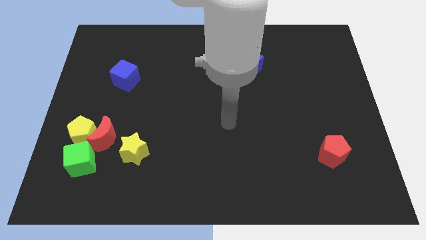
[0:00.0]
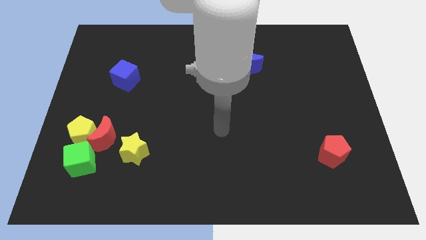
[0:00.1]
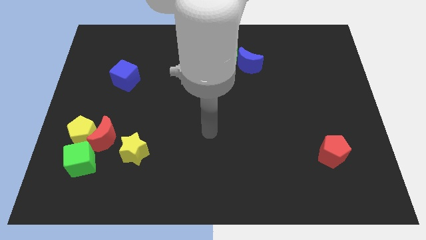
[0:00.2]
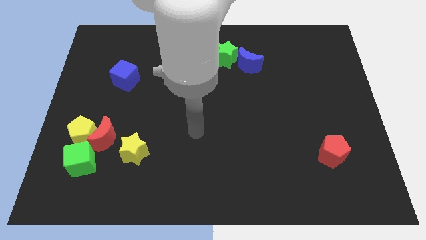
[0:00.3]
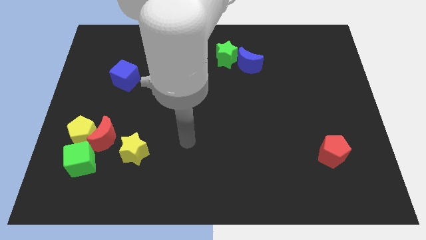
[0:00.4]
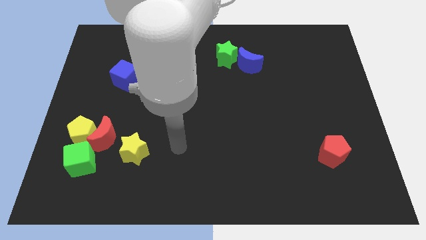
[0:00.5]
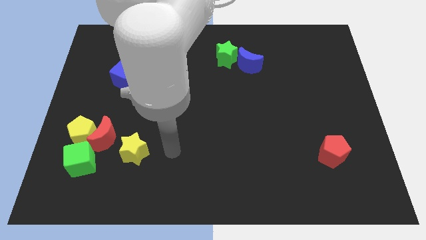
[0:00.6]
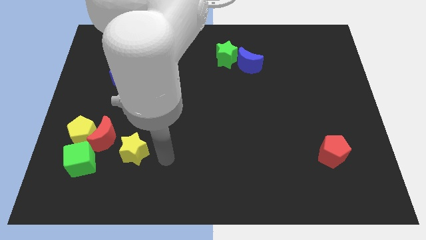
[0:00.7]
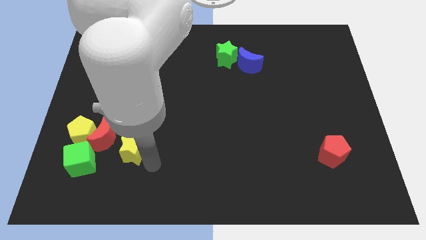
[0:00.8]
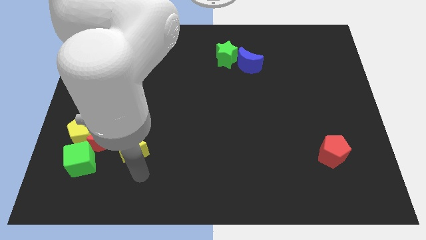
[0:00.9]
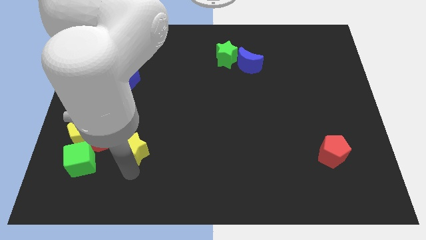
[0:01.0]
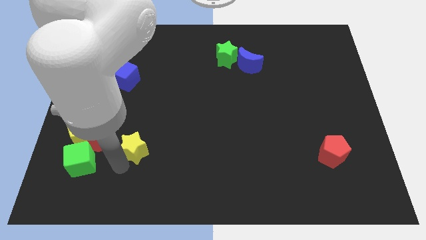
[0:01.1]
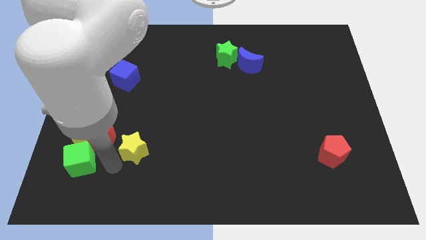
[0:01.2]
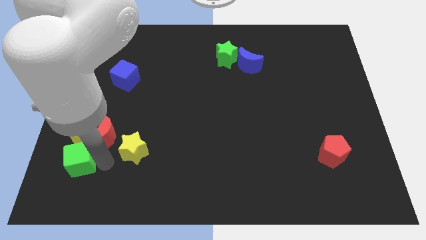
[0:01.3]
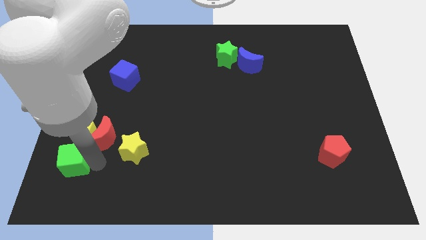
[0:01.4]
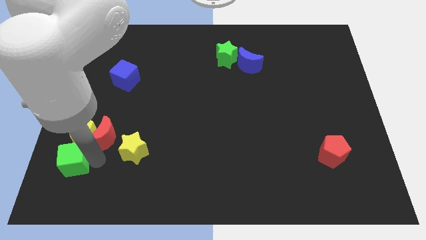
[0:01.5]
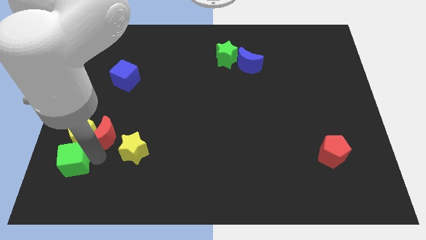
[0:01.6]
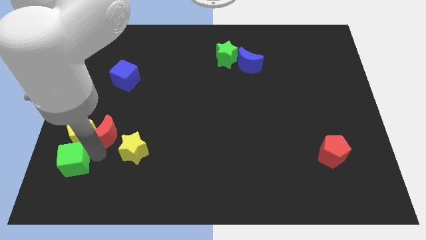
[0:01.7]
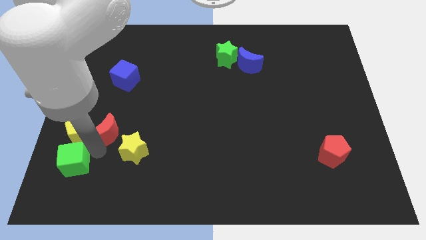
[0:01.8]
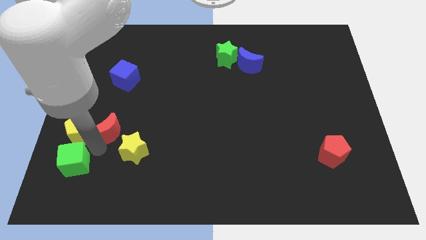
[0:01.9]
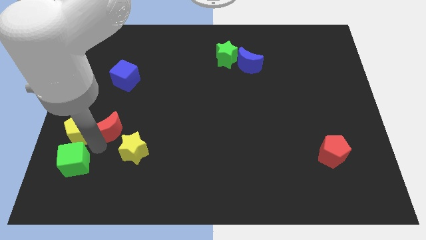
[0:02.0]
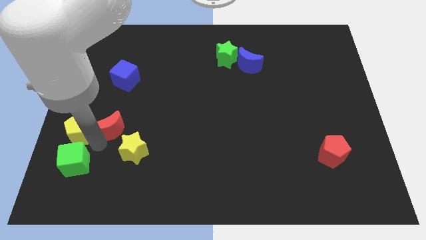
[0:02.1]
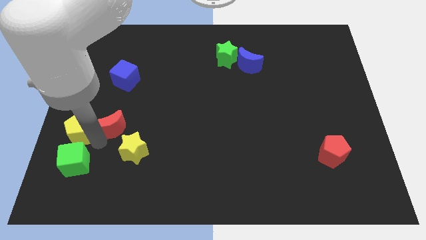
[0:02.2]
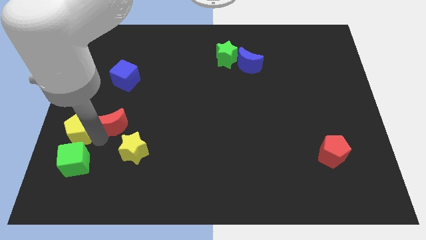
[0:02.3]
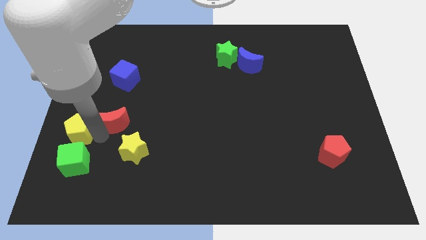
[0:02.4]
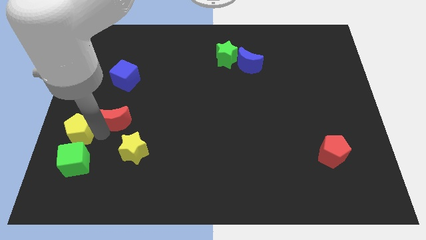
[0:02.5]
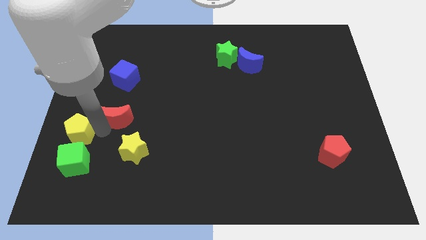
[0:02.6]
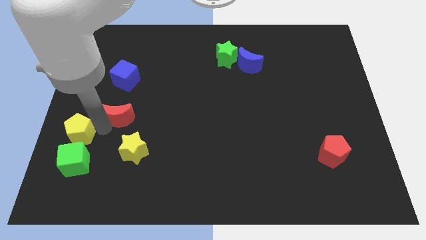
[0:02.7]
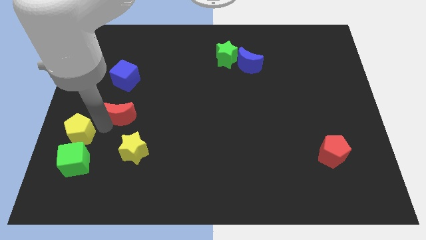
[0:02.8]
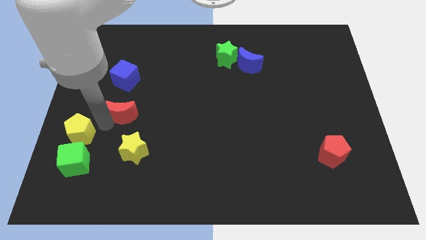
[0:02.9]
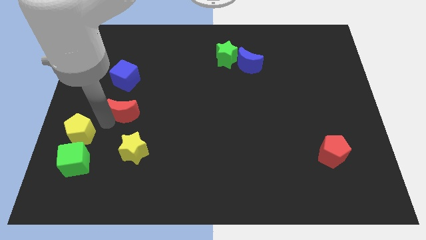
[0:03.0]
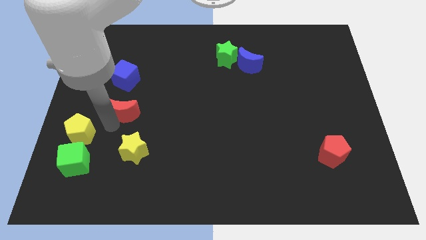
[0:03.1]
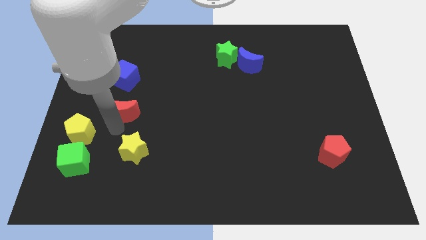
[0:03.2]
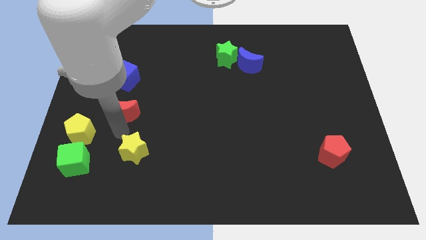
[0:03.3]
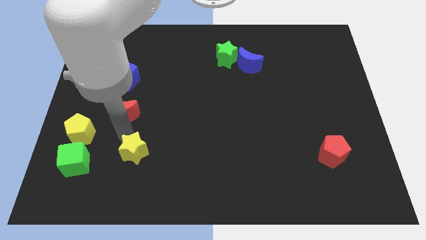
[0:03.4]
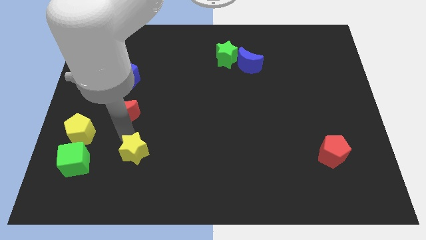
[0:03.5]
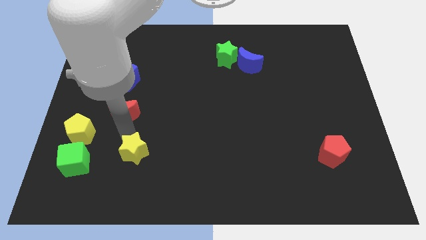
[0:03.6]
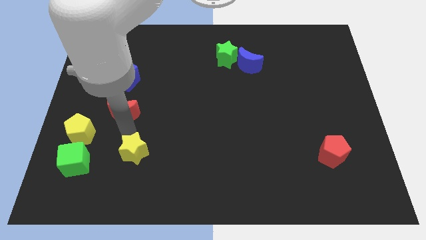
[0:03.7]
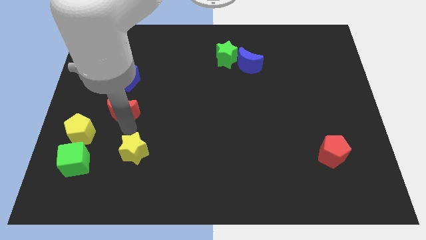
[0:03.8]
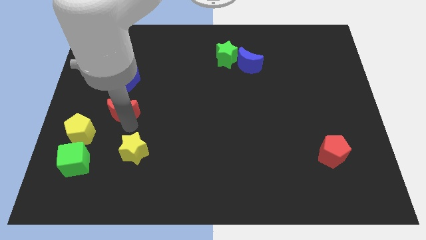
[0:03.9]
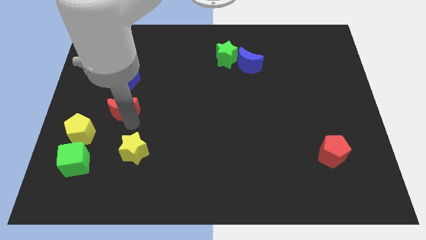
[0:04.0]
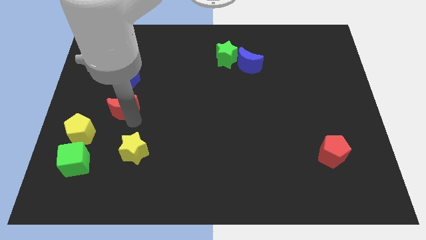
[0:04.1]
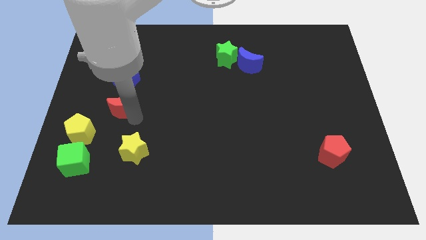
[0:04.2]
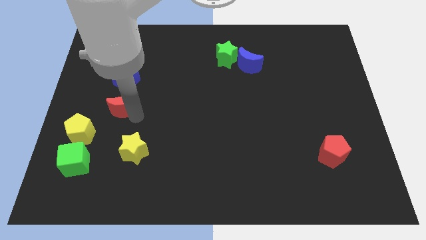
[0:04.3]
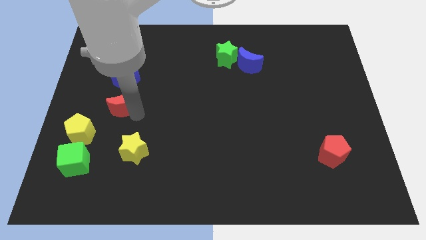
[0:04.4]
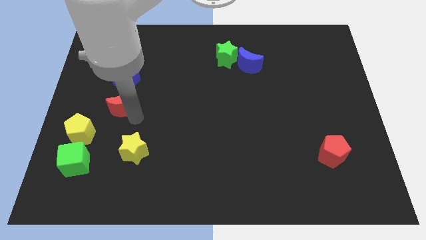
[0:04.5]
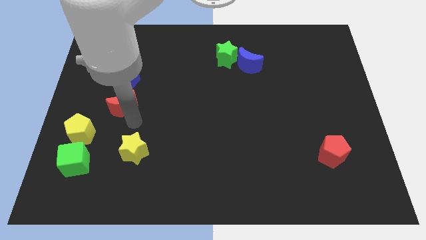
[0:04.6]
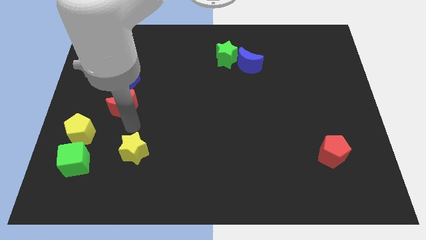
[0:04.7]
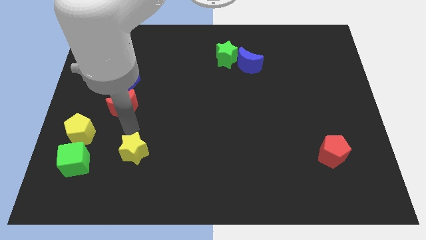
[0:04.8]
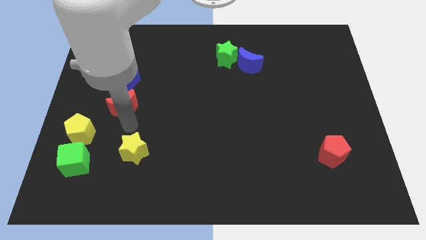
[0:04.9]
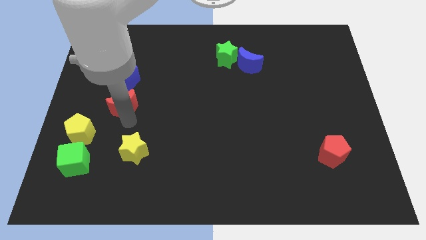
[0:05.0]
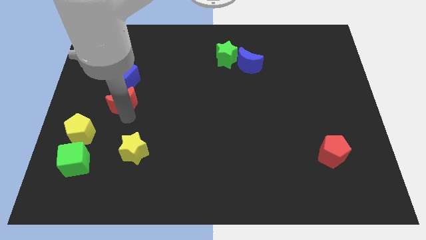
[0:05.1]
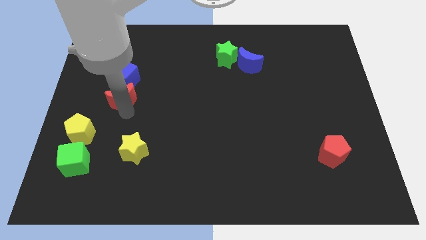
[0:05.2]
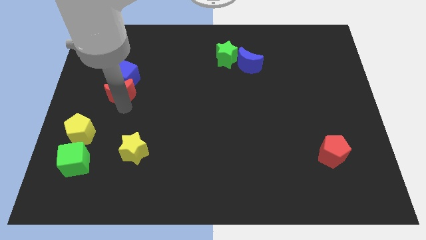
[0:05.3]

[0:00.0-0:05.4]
move the red moon to the blue cube

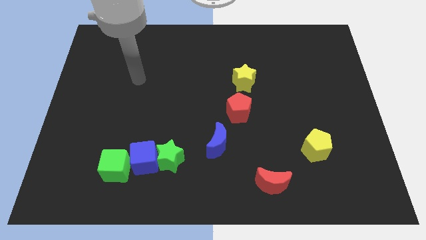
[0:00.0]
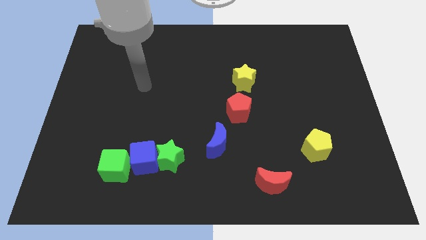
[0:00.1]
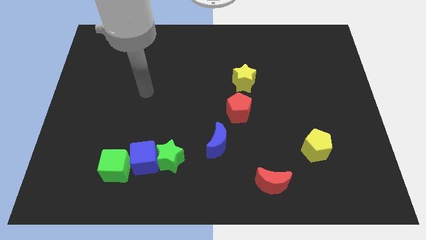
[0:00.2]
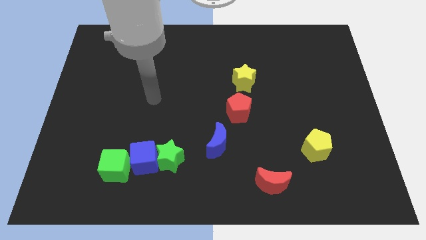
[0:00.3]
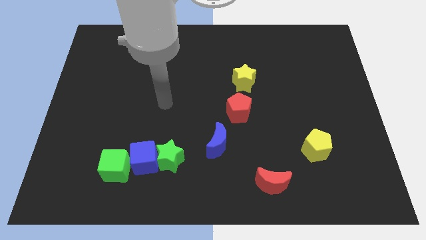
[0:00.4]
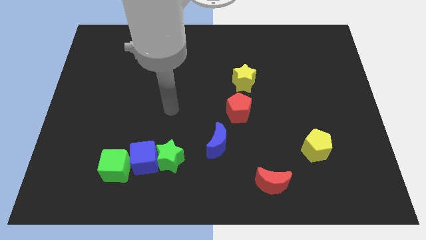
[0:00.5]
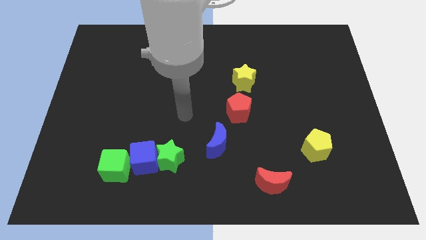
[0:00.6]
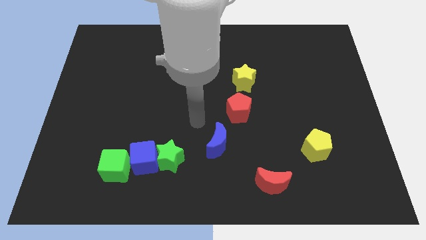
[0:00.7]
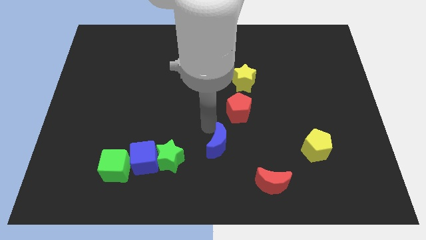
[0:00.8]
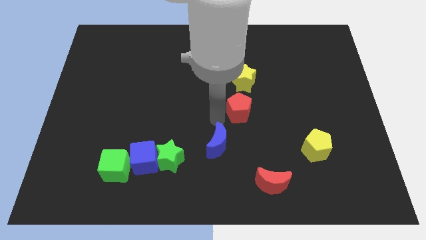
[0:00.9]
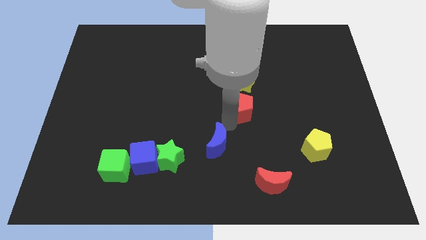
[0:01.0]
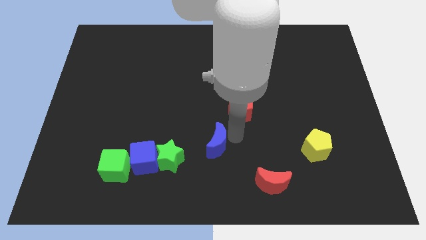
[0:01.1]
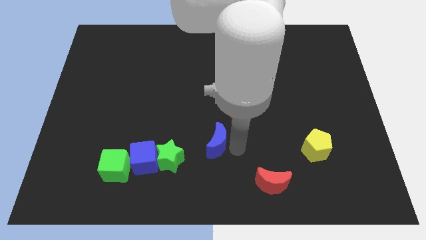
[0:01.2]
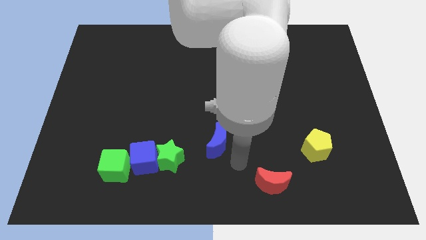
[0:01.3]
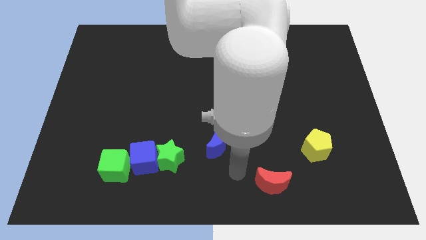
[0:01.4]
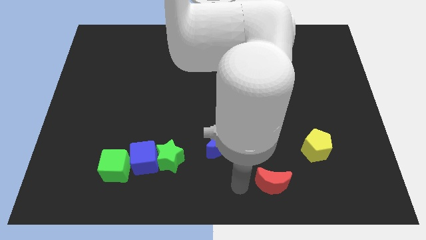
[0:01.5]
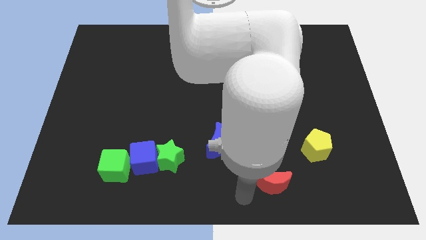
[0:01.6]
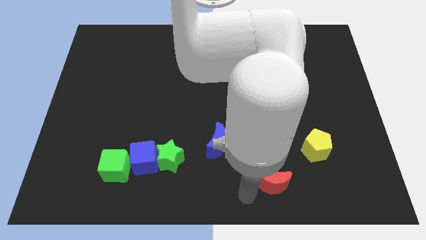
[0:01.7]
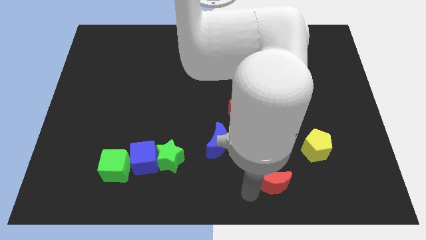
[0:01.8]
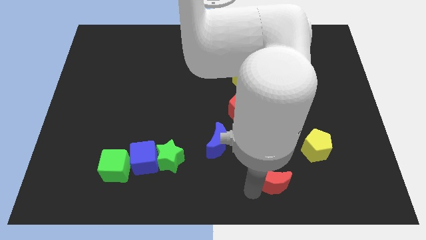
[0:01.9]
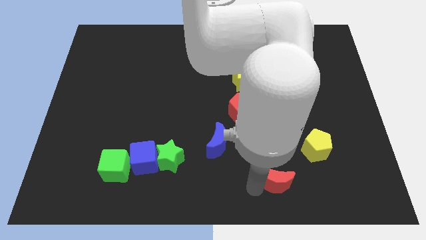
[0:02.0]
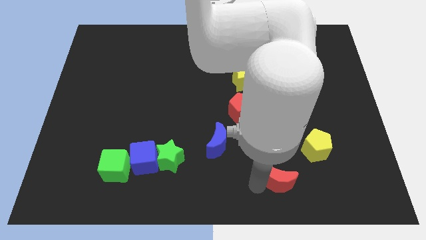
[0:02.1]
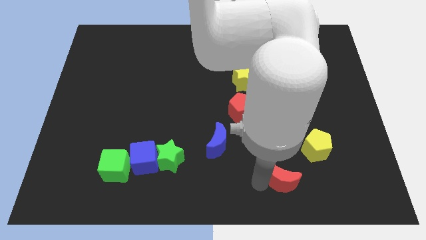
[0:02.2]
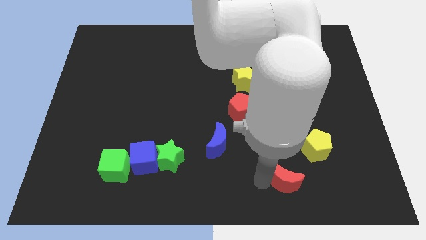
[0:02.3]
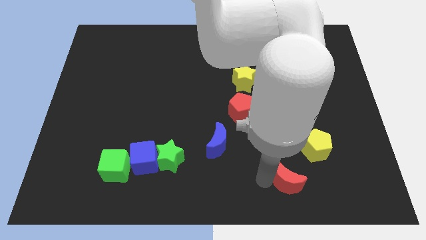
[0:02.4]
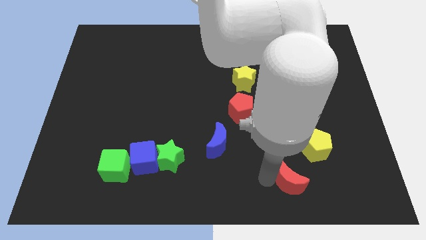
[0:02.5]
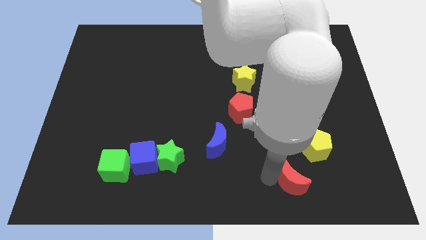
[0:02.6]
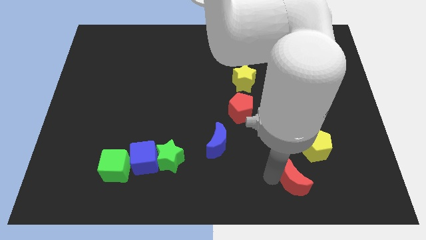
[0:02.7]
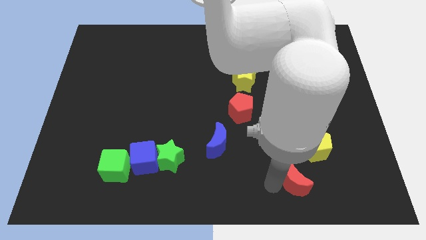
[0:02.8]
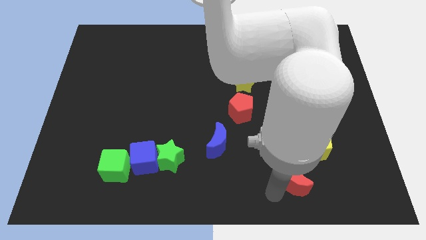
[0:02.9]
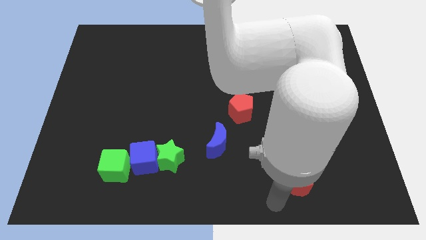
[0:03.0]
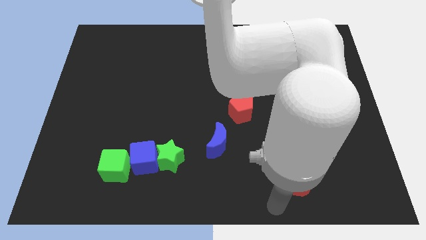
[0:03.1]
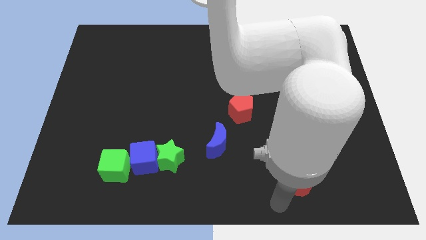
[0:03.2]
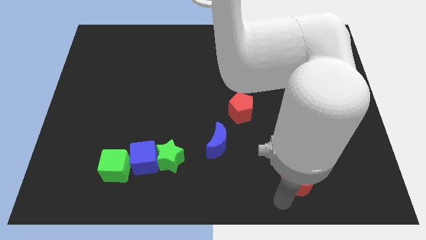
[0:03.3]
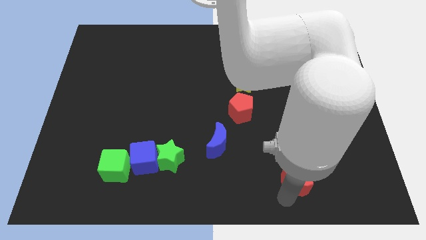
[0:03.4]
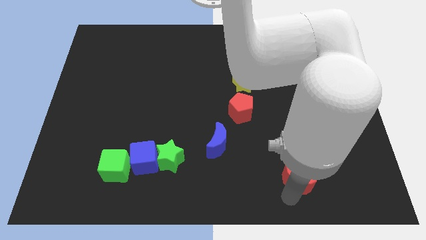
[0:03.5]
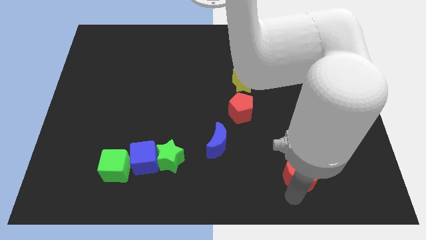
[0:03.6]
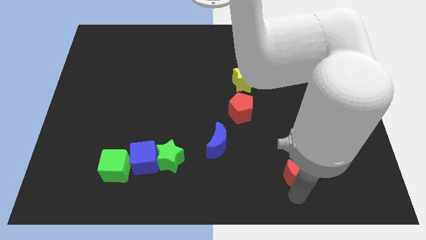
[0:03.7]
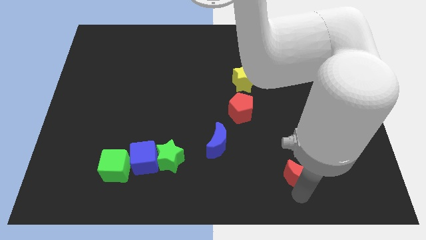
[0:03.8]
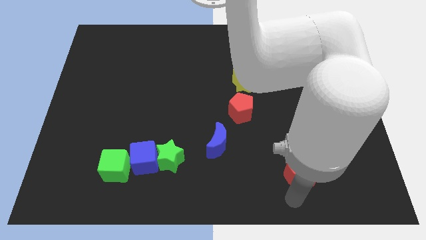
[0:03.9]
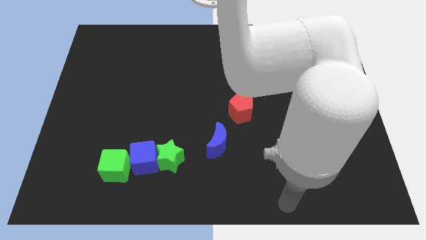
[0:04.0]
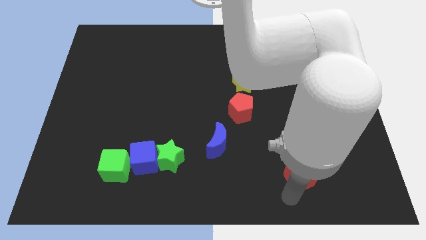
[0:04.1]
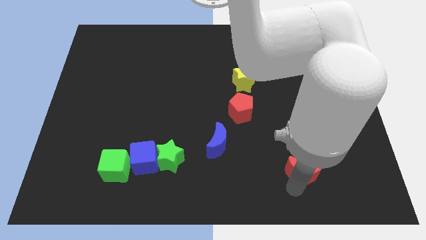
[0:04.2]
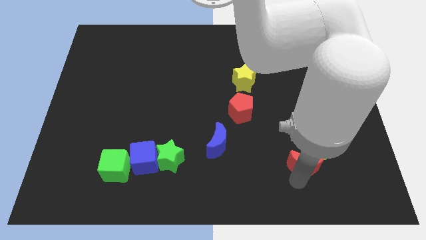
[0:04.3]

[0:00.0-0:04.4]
put the red moon close to the yellow pentagon
